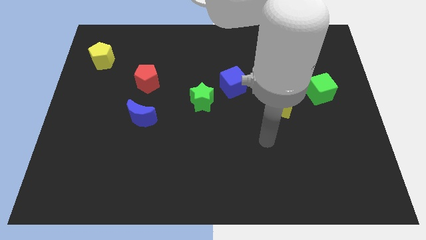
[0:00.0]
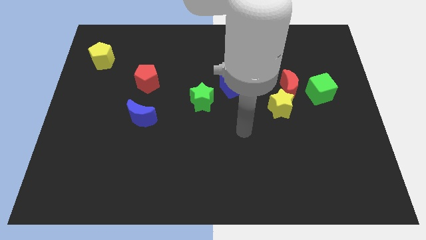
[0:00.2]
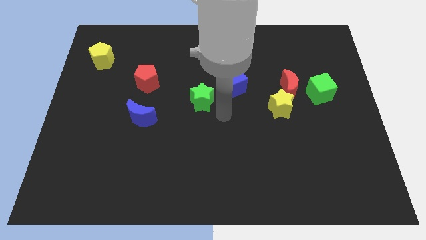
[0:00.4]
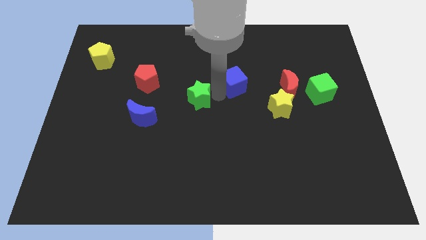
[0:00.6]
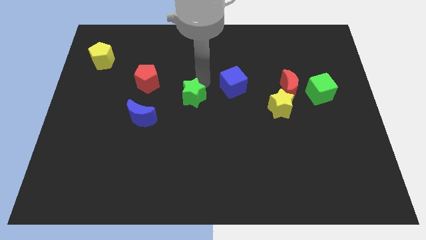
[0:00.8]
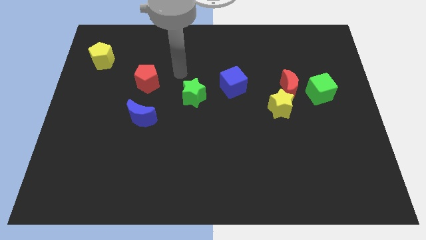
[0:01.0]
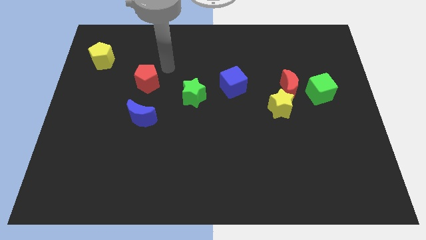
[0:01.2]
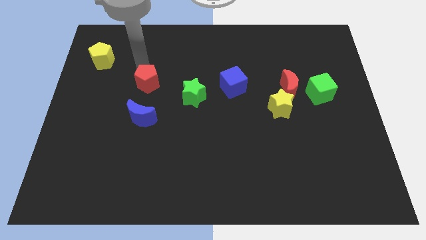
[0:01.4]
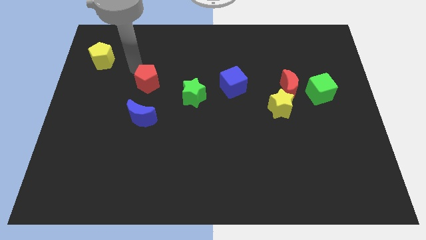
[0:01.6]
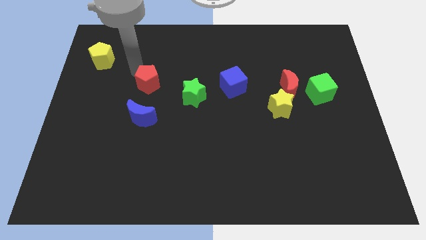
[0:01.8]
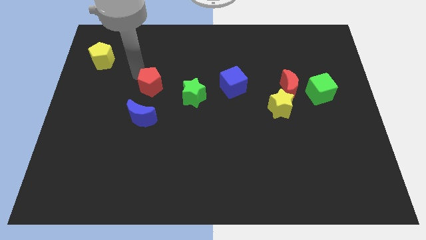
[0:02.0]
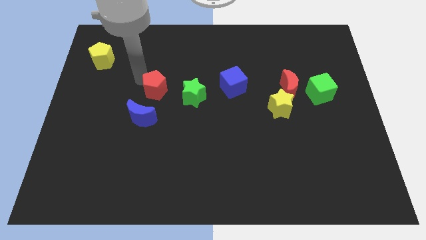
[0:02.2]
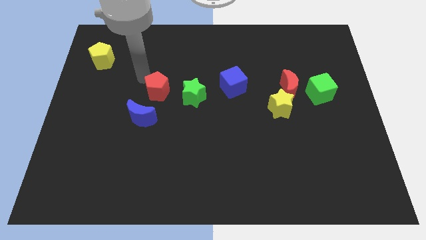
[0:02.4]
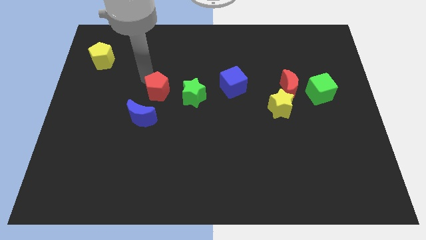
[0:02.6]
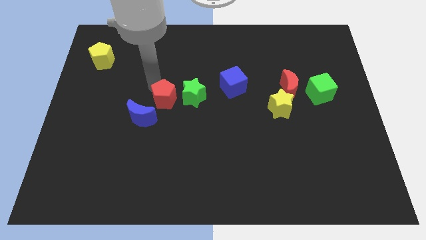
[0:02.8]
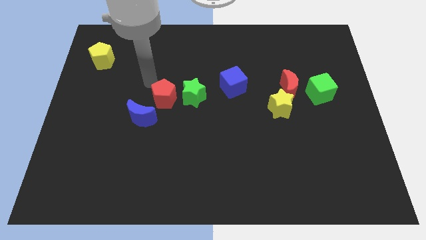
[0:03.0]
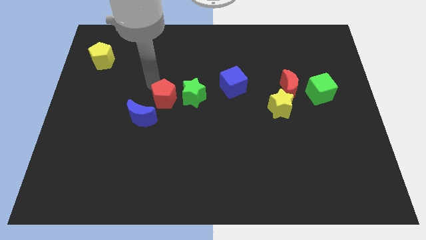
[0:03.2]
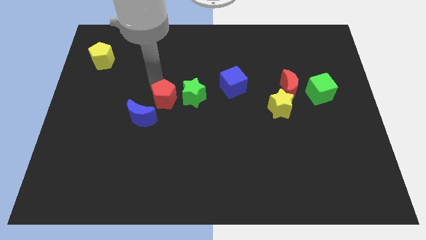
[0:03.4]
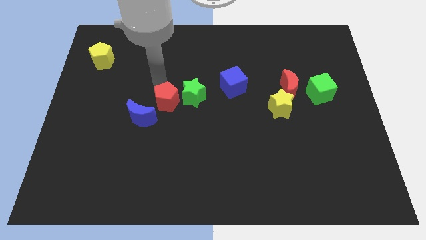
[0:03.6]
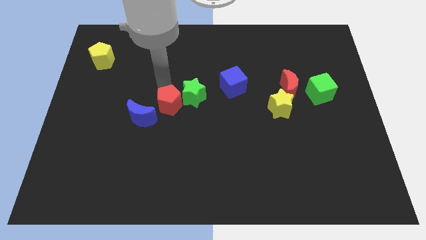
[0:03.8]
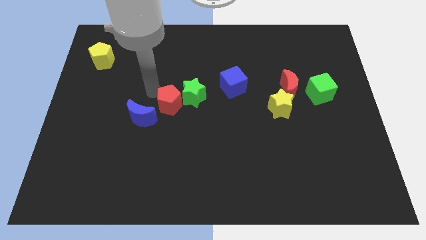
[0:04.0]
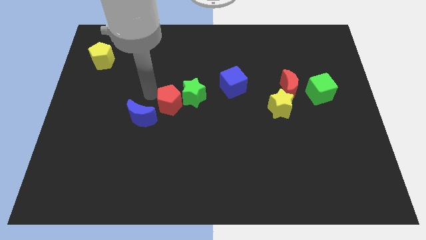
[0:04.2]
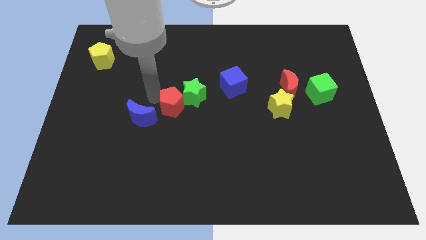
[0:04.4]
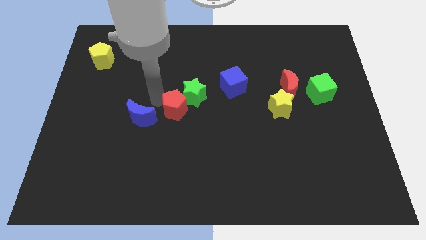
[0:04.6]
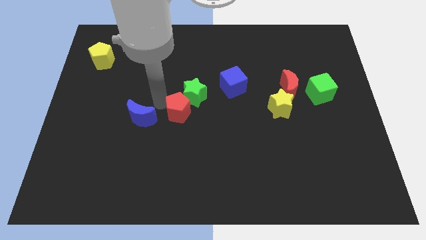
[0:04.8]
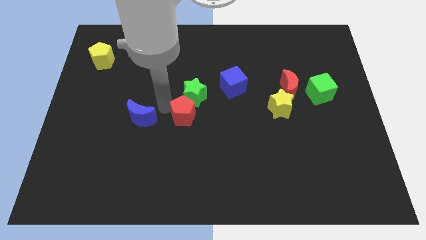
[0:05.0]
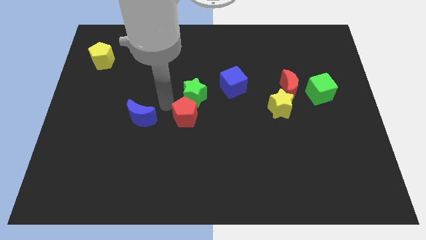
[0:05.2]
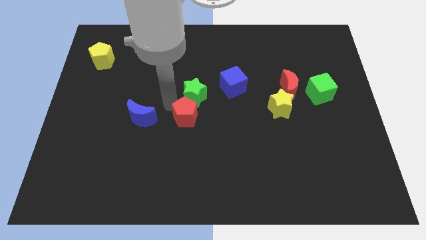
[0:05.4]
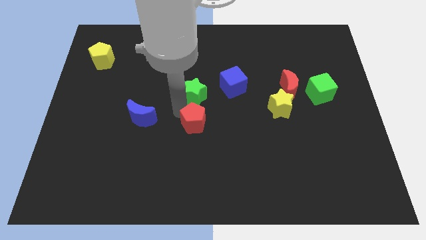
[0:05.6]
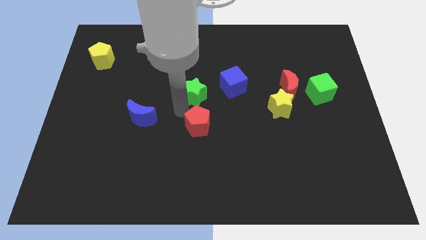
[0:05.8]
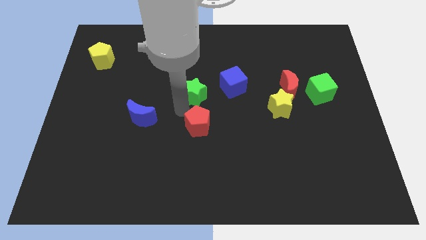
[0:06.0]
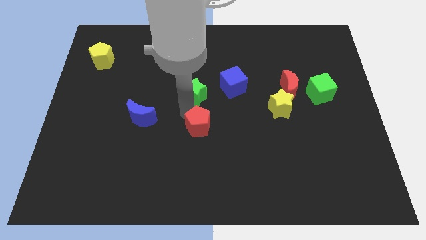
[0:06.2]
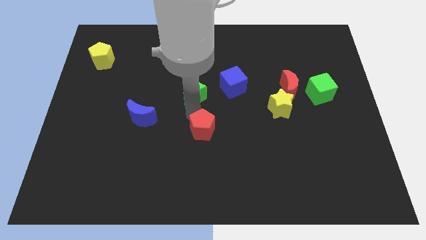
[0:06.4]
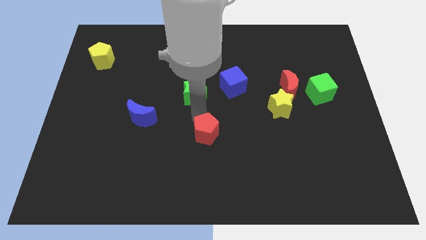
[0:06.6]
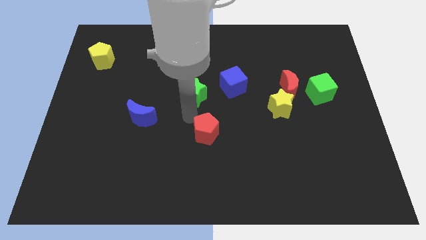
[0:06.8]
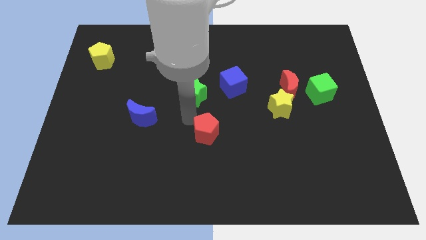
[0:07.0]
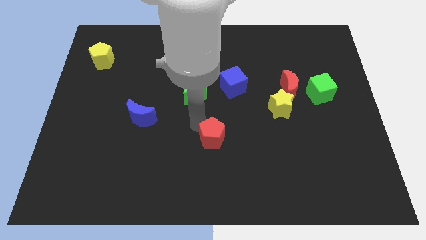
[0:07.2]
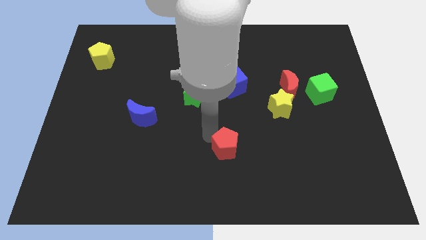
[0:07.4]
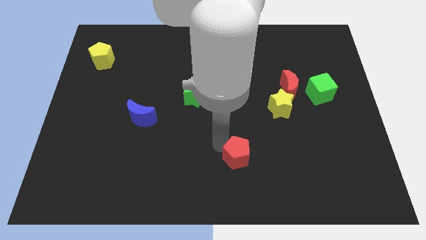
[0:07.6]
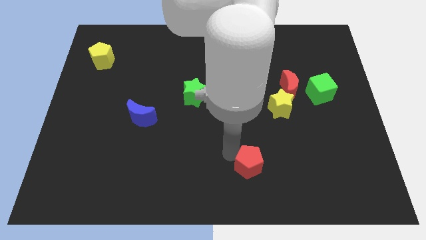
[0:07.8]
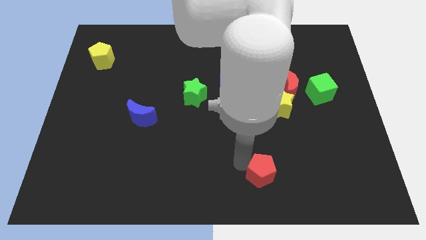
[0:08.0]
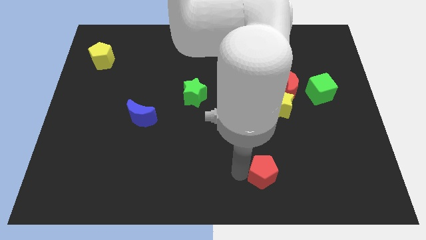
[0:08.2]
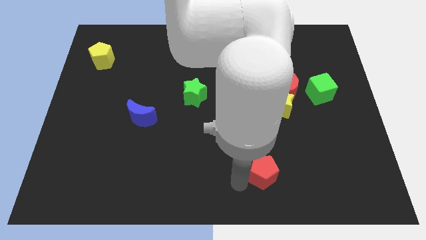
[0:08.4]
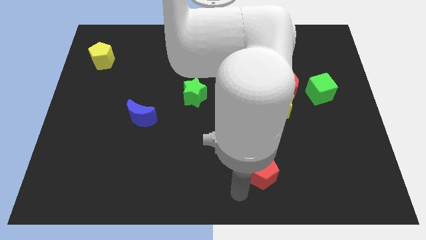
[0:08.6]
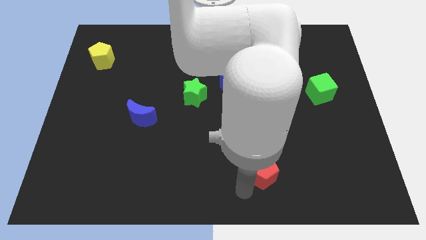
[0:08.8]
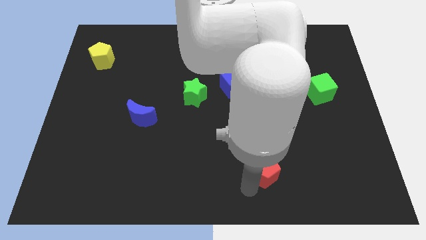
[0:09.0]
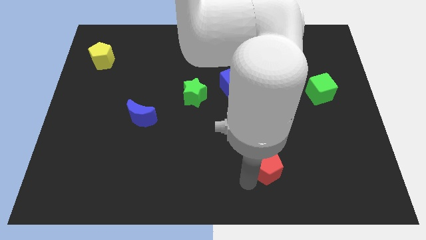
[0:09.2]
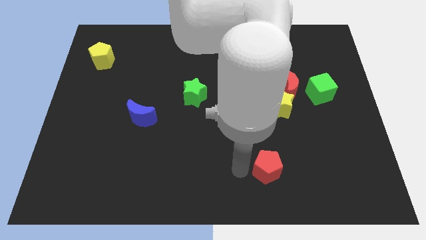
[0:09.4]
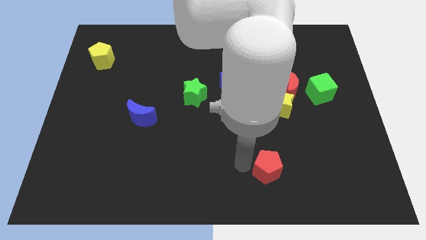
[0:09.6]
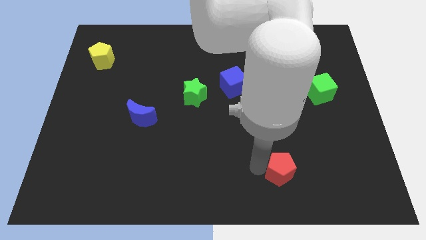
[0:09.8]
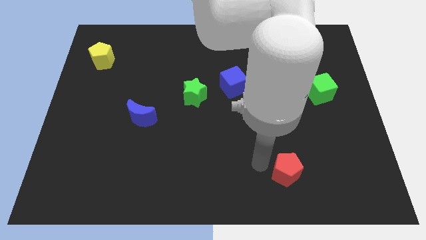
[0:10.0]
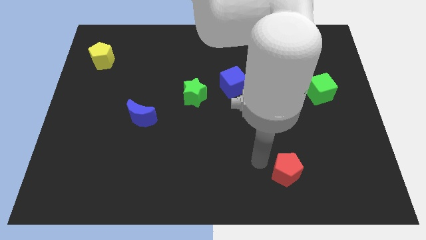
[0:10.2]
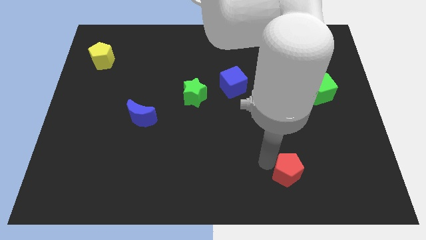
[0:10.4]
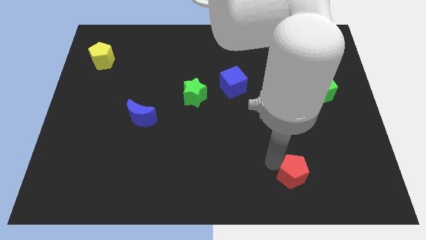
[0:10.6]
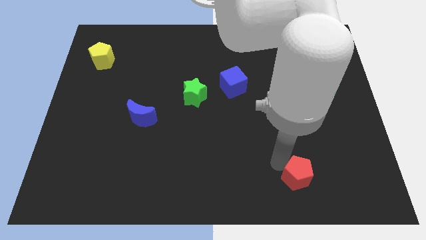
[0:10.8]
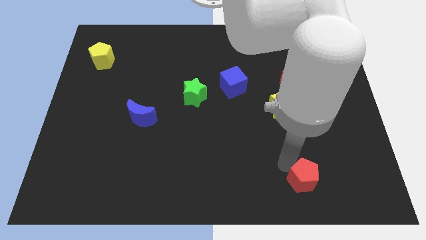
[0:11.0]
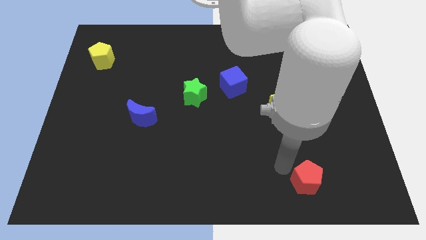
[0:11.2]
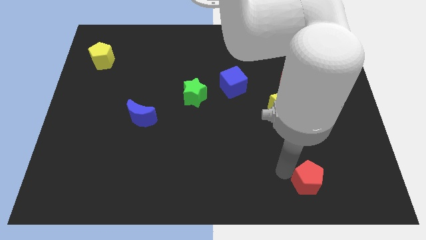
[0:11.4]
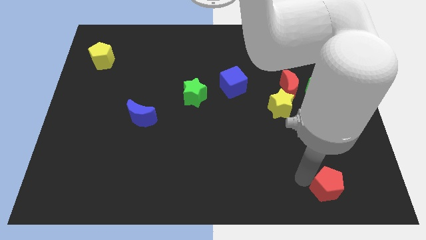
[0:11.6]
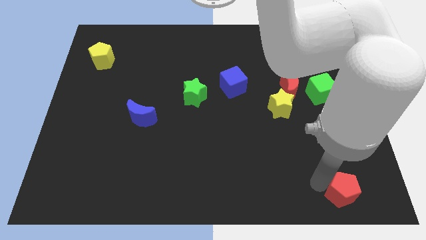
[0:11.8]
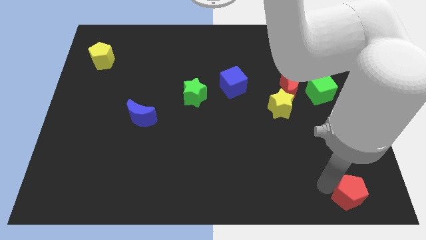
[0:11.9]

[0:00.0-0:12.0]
move the red pentagon to the bottom right
